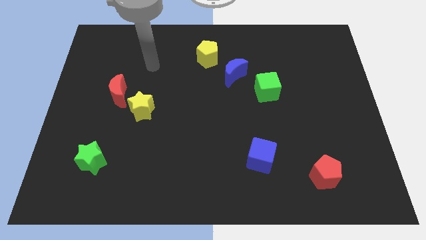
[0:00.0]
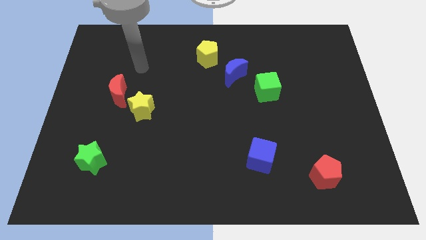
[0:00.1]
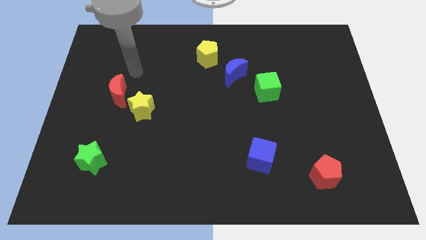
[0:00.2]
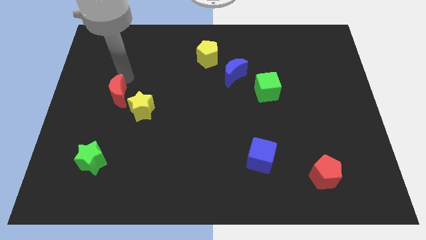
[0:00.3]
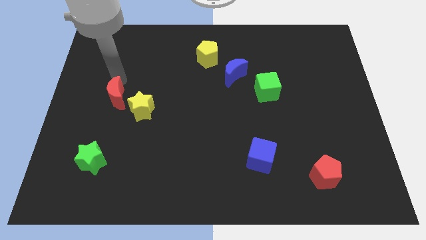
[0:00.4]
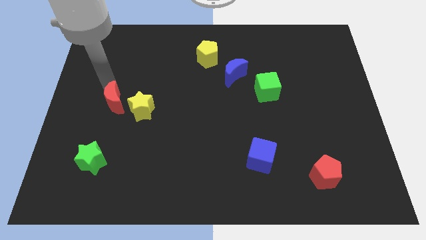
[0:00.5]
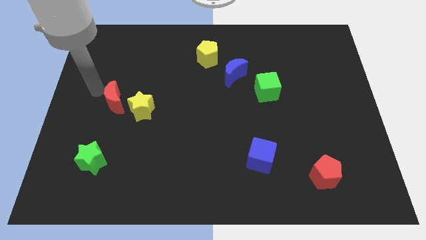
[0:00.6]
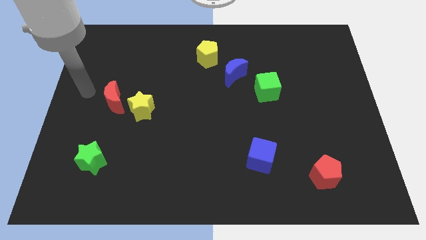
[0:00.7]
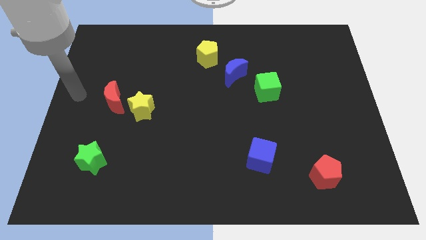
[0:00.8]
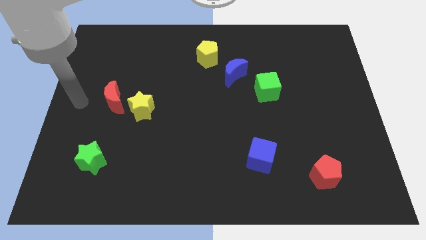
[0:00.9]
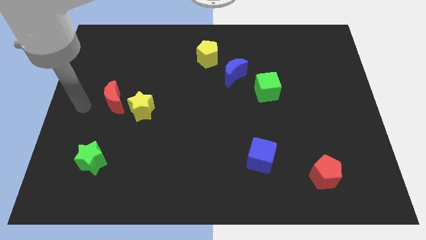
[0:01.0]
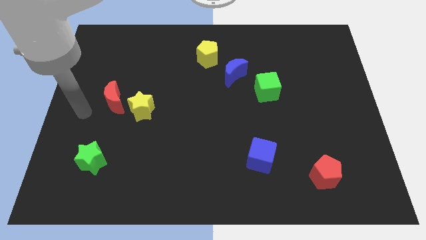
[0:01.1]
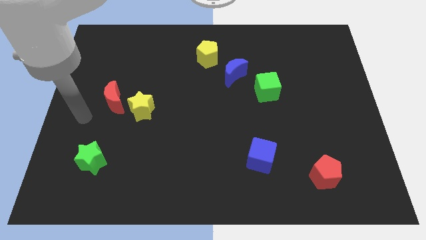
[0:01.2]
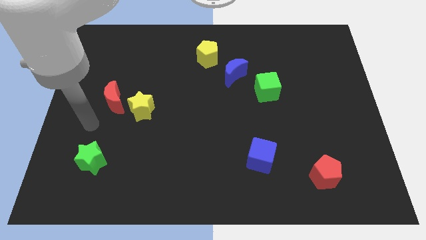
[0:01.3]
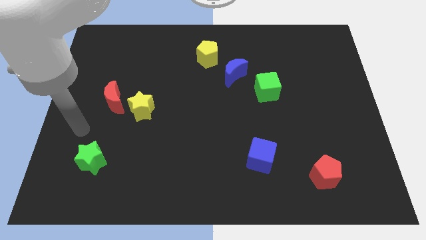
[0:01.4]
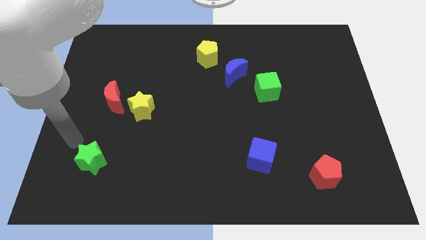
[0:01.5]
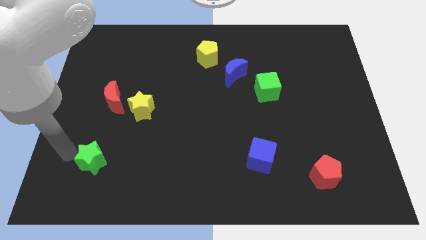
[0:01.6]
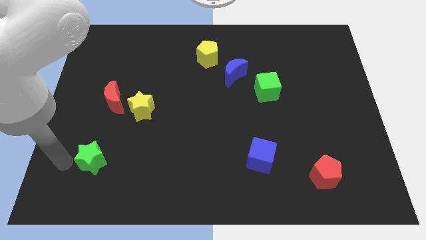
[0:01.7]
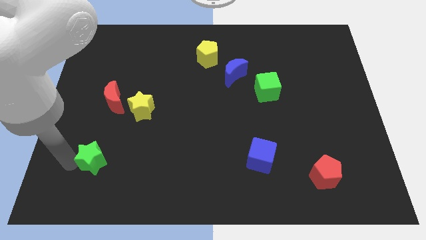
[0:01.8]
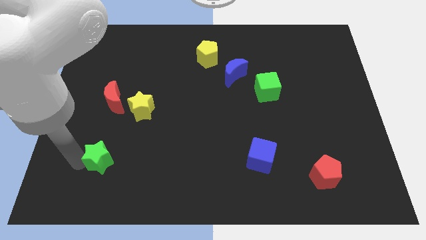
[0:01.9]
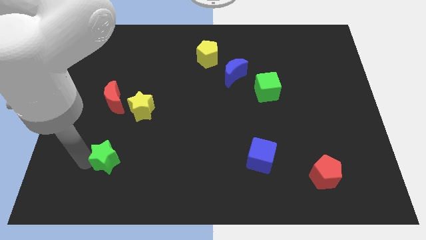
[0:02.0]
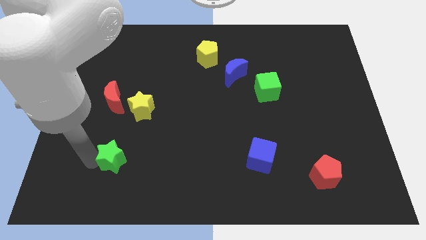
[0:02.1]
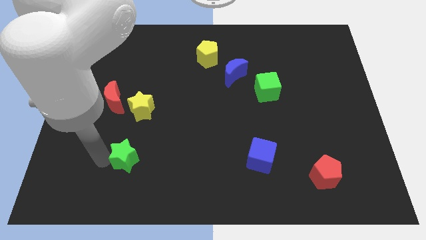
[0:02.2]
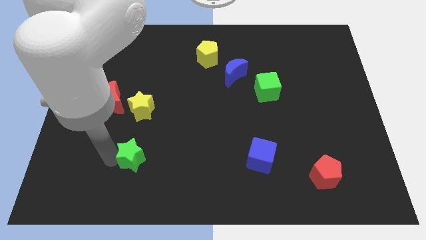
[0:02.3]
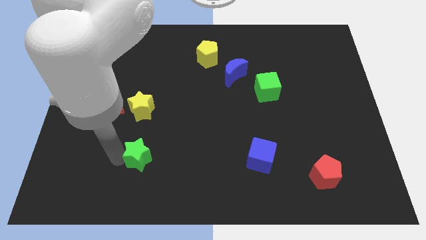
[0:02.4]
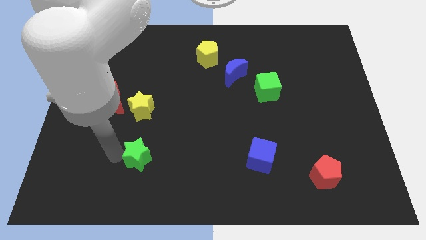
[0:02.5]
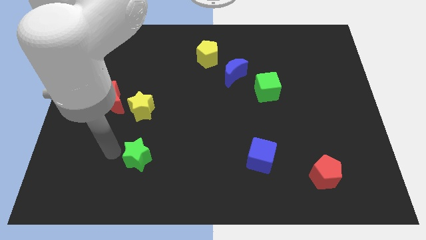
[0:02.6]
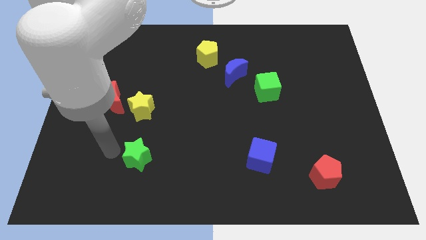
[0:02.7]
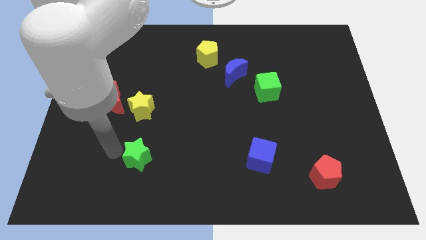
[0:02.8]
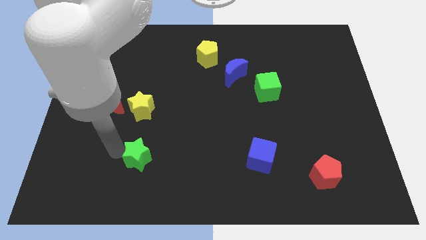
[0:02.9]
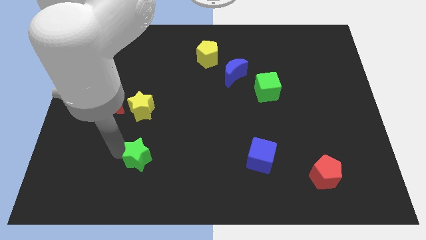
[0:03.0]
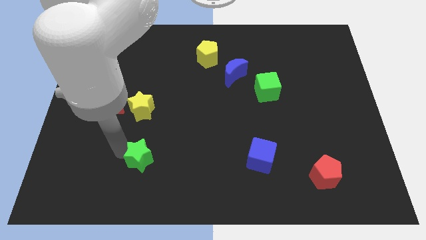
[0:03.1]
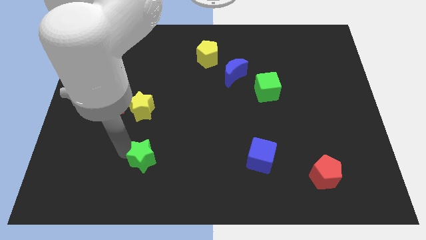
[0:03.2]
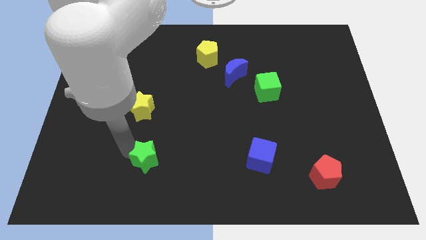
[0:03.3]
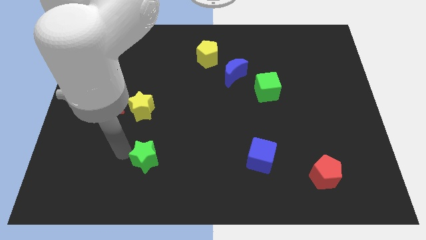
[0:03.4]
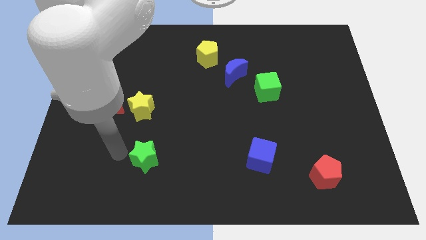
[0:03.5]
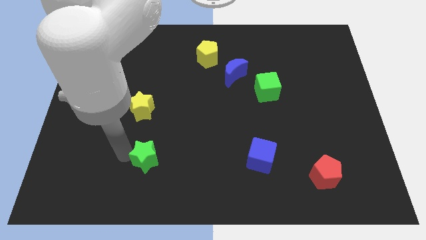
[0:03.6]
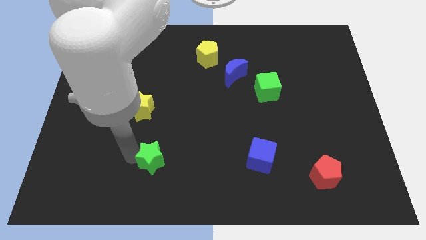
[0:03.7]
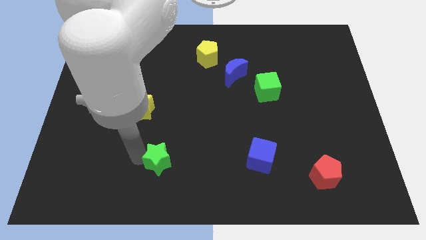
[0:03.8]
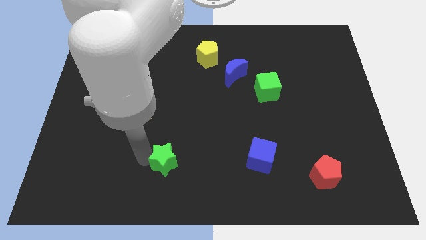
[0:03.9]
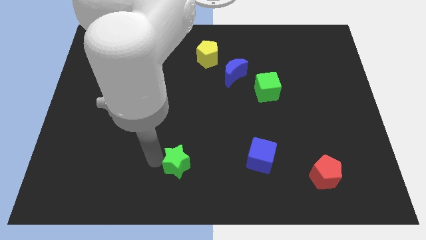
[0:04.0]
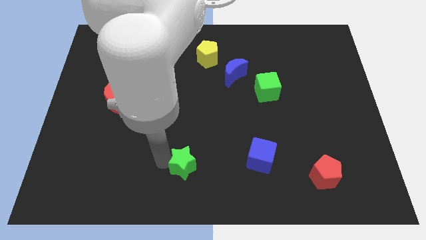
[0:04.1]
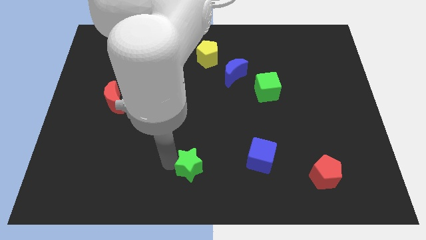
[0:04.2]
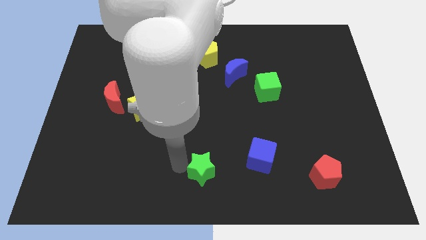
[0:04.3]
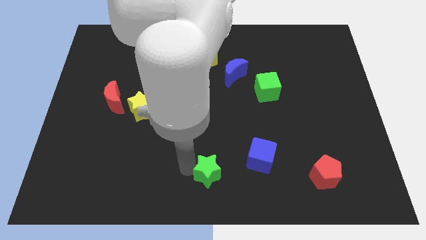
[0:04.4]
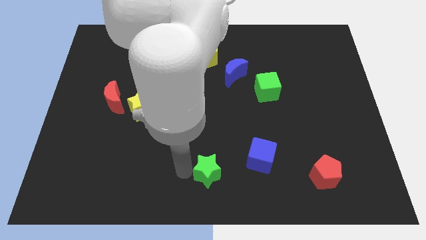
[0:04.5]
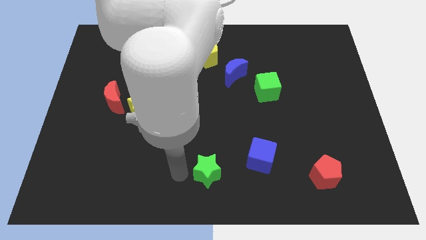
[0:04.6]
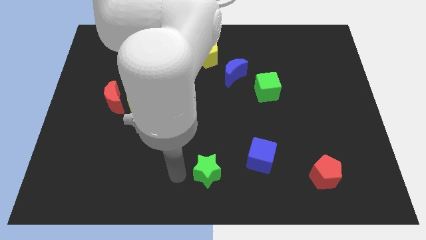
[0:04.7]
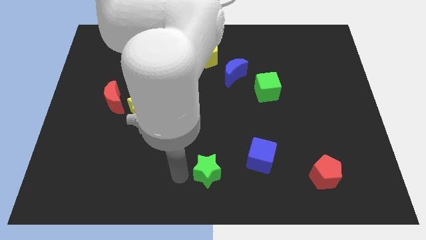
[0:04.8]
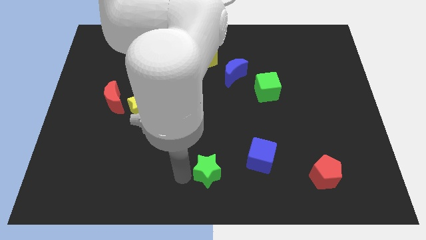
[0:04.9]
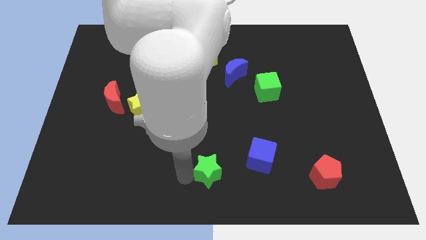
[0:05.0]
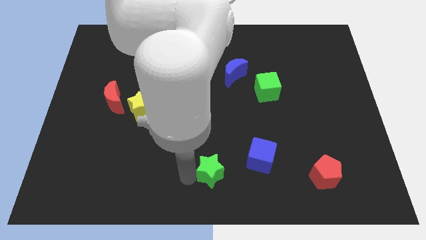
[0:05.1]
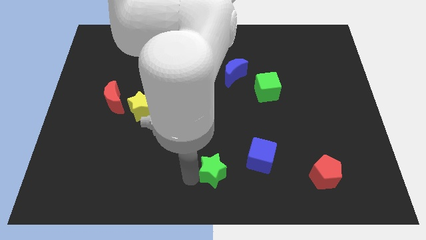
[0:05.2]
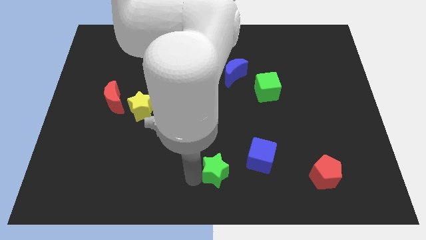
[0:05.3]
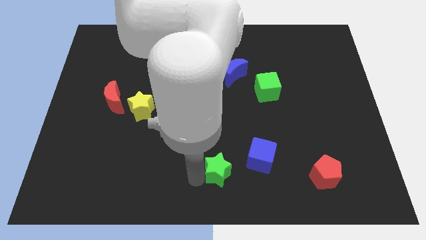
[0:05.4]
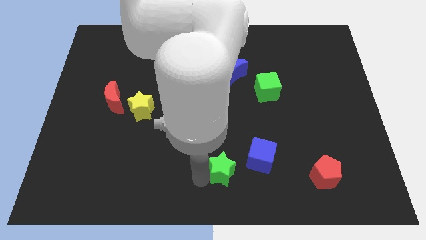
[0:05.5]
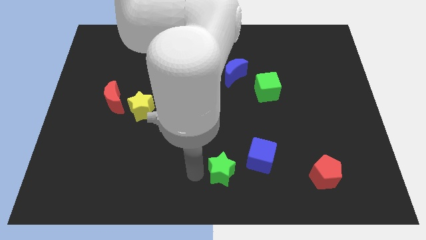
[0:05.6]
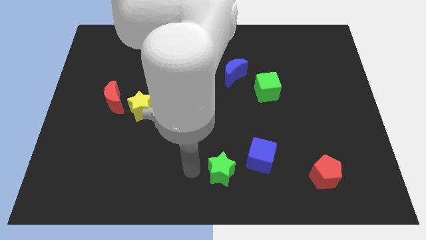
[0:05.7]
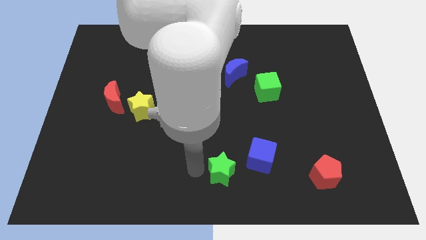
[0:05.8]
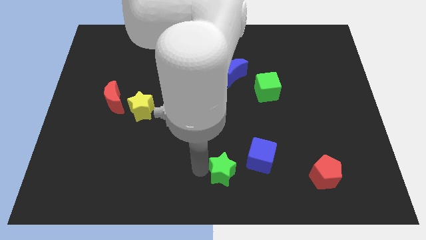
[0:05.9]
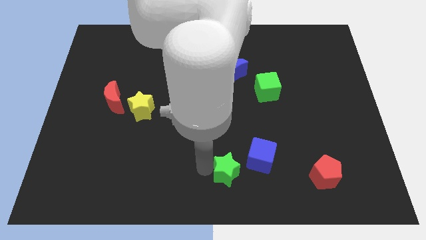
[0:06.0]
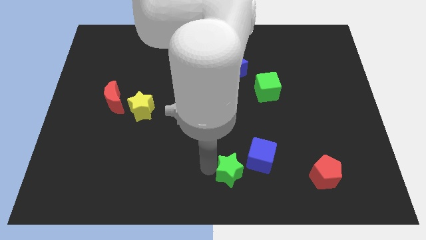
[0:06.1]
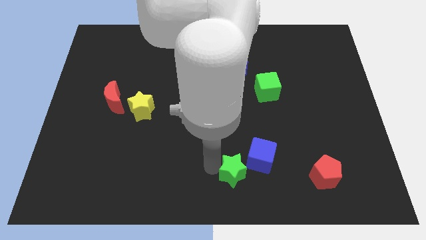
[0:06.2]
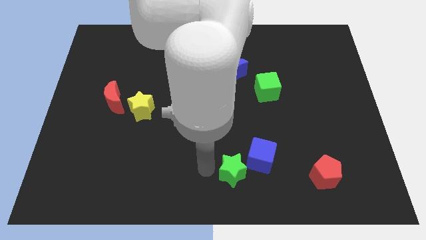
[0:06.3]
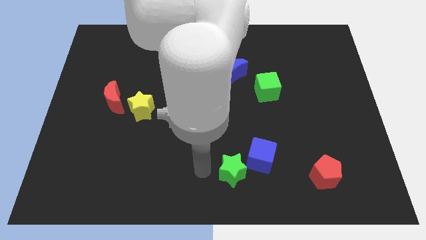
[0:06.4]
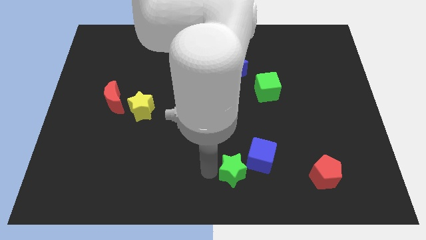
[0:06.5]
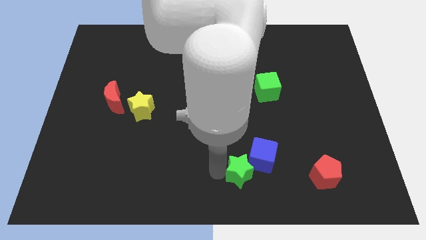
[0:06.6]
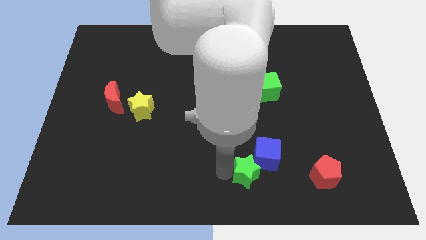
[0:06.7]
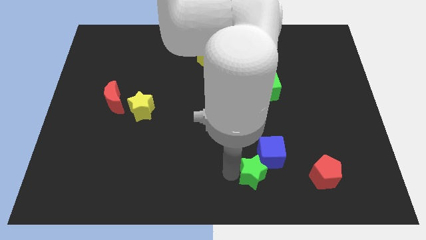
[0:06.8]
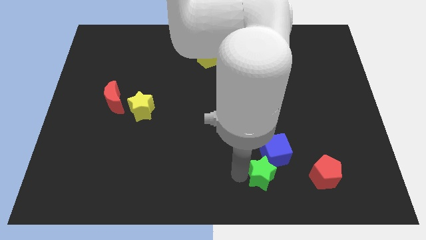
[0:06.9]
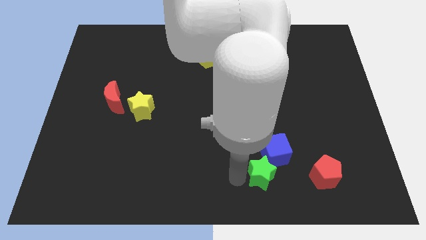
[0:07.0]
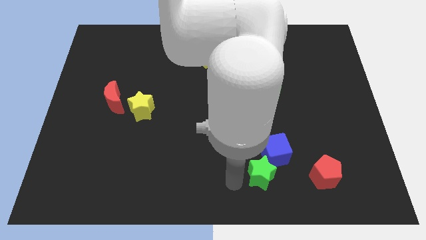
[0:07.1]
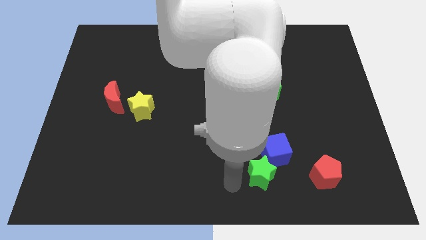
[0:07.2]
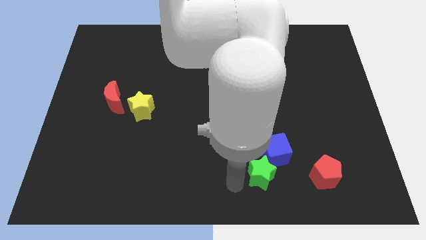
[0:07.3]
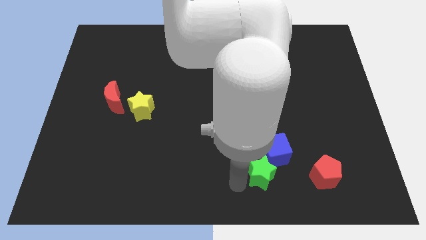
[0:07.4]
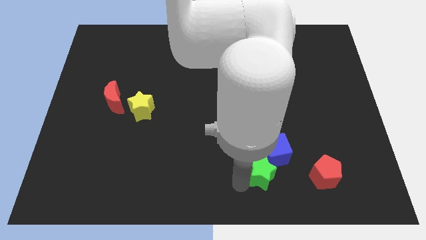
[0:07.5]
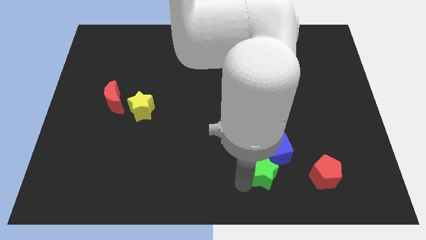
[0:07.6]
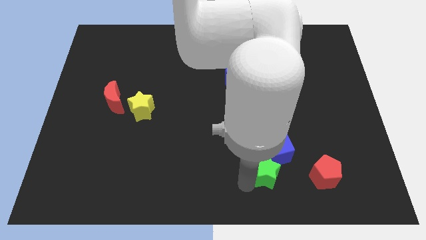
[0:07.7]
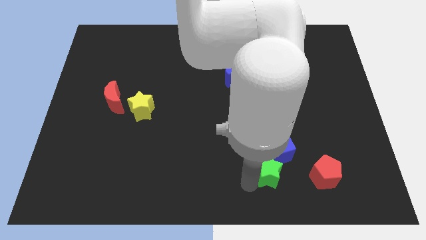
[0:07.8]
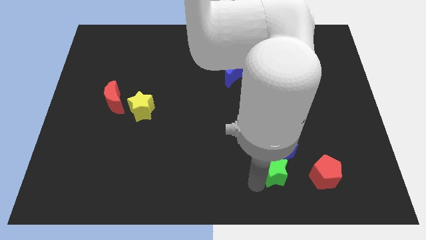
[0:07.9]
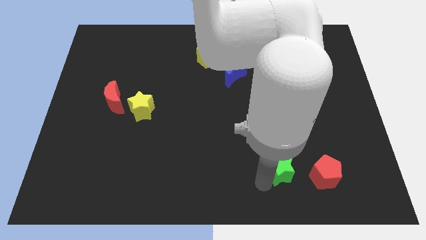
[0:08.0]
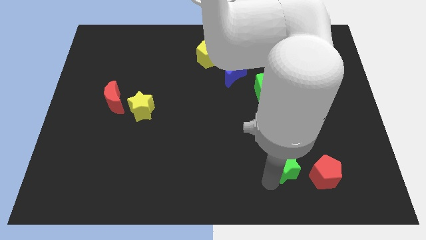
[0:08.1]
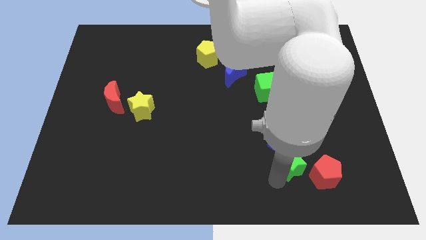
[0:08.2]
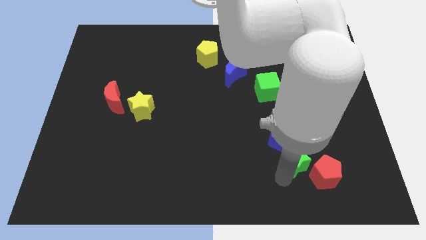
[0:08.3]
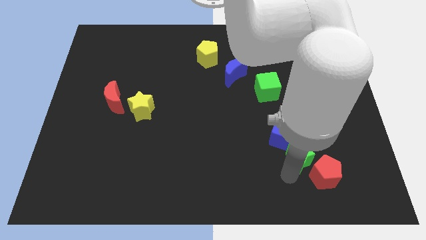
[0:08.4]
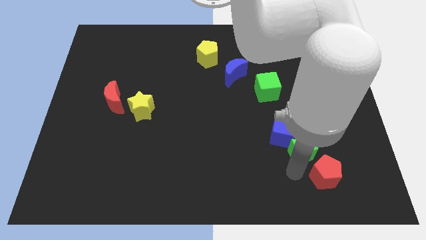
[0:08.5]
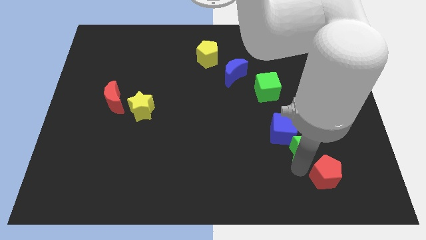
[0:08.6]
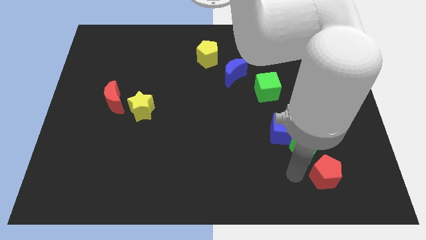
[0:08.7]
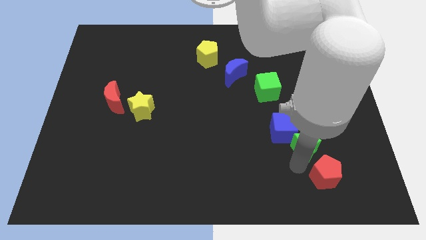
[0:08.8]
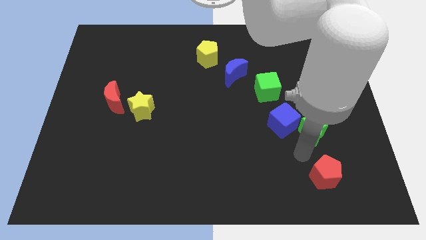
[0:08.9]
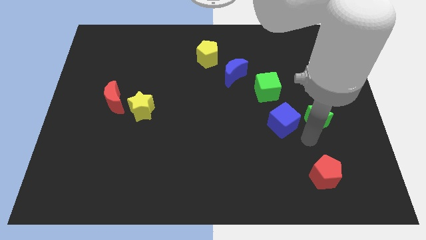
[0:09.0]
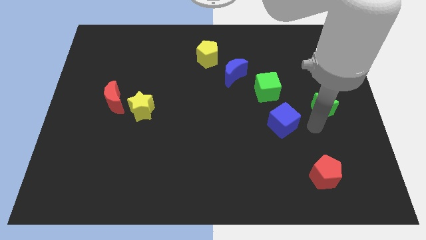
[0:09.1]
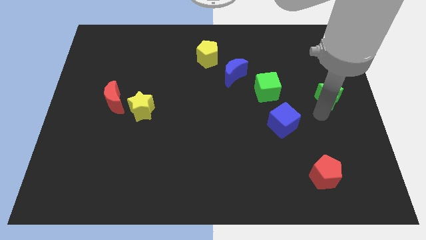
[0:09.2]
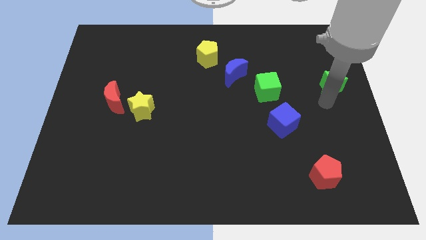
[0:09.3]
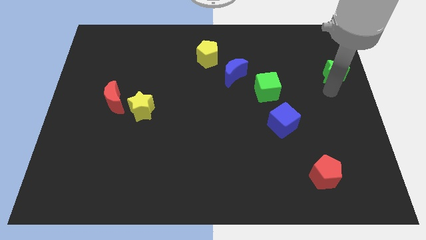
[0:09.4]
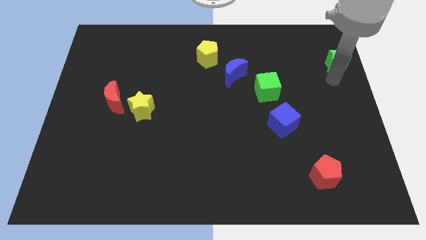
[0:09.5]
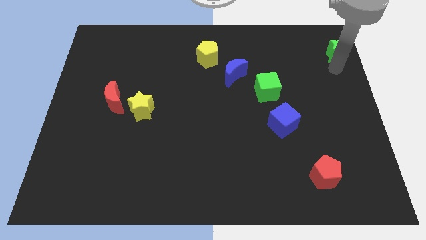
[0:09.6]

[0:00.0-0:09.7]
put the green star to the upper right corner
